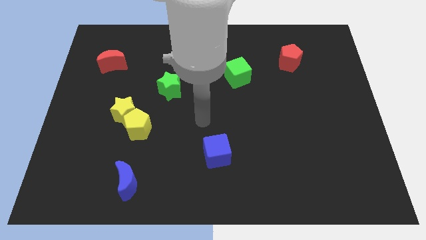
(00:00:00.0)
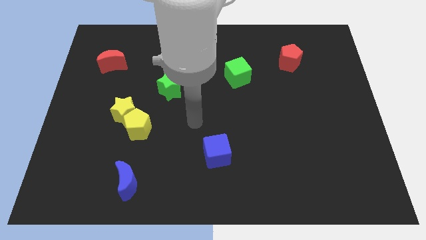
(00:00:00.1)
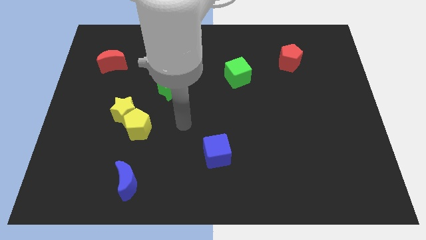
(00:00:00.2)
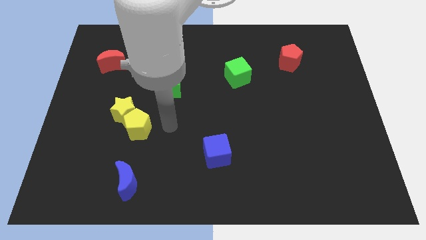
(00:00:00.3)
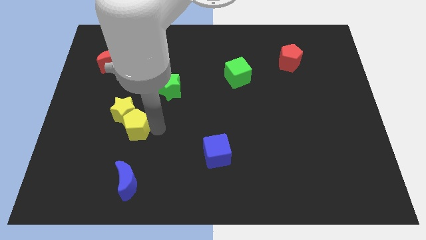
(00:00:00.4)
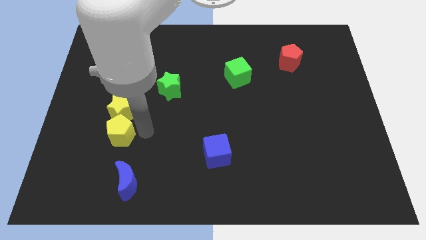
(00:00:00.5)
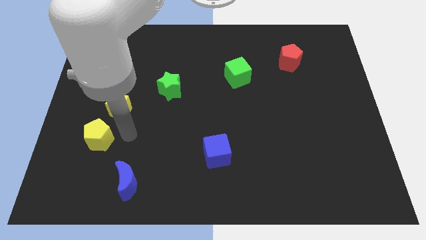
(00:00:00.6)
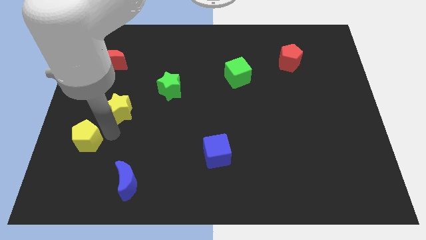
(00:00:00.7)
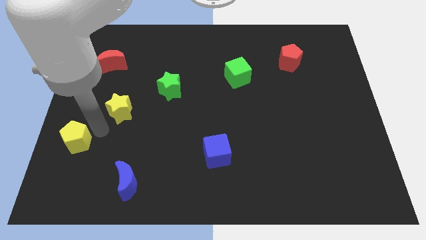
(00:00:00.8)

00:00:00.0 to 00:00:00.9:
pull the yellow star apart from the yellow pentagon

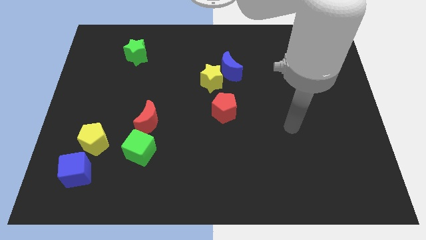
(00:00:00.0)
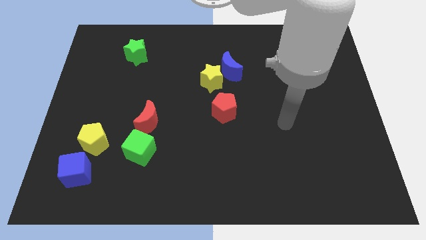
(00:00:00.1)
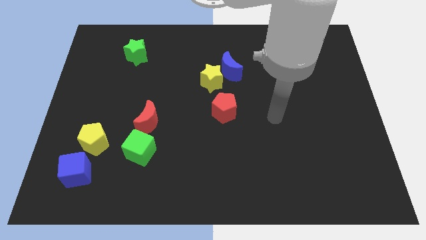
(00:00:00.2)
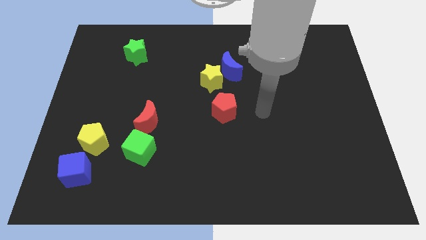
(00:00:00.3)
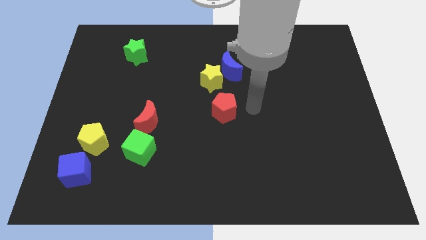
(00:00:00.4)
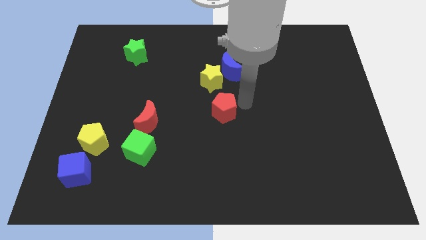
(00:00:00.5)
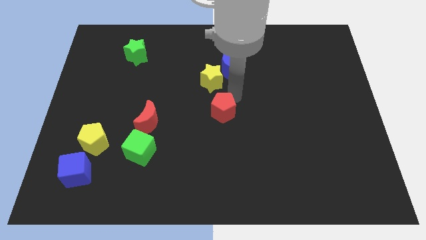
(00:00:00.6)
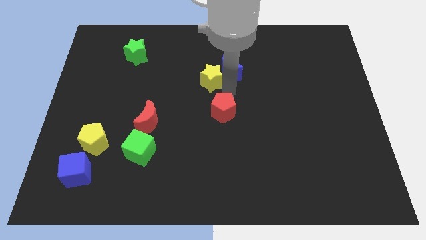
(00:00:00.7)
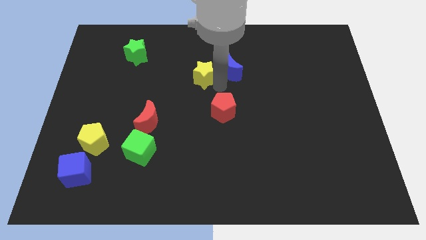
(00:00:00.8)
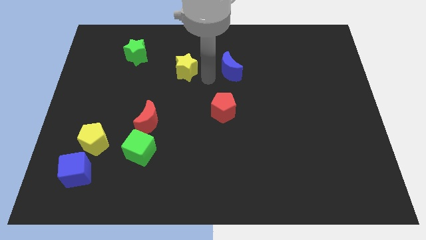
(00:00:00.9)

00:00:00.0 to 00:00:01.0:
separate the blue moon from the yellow star

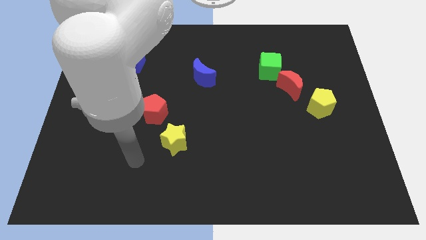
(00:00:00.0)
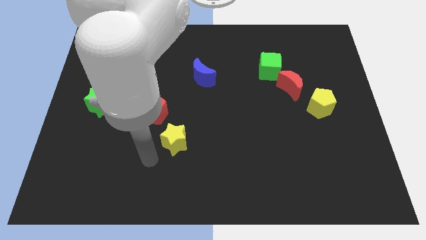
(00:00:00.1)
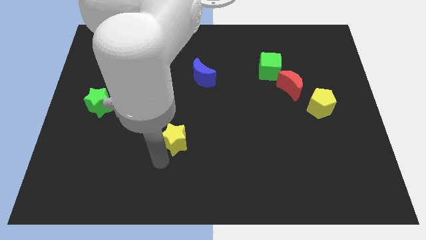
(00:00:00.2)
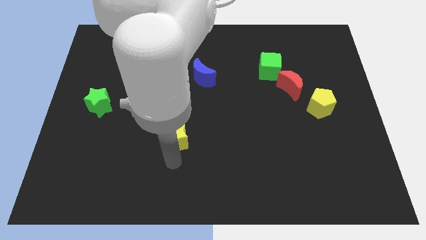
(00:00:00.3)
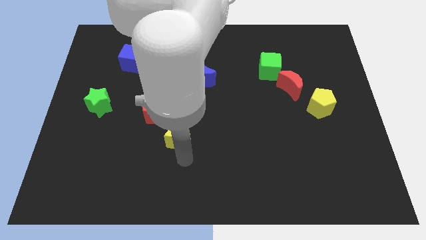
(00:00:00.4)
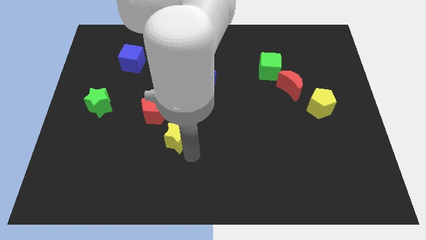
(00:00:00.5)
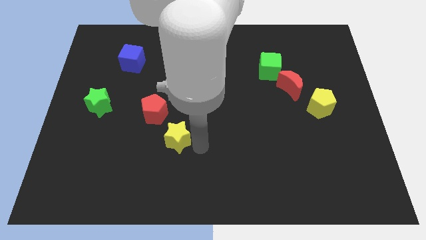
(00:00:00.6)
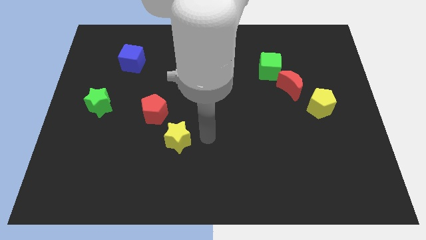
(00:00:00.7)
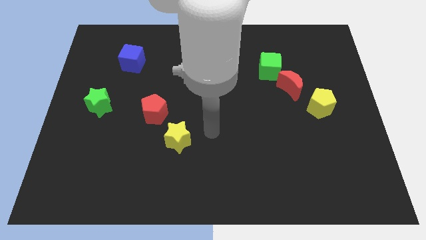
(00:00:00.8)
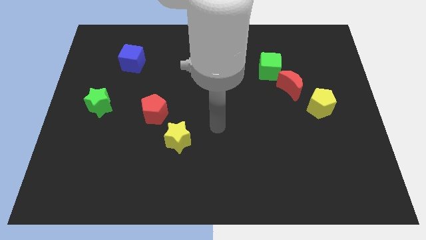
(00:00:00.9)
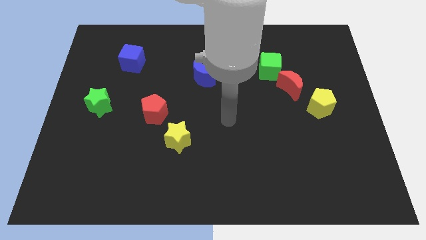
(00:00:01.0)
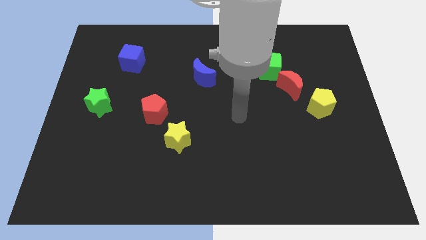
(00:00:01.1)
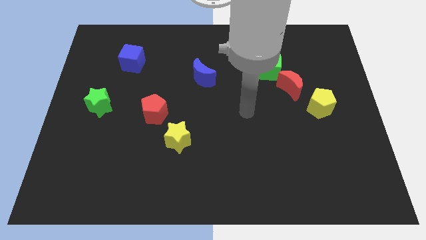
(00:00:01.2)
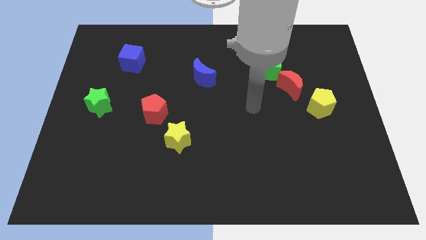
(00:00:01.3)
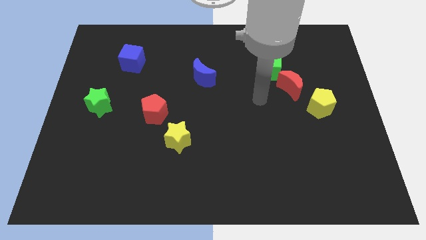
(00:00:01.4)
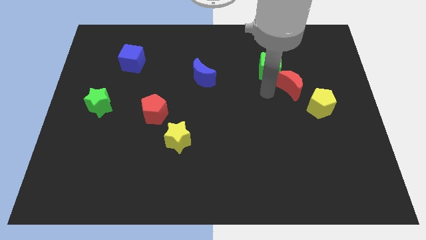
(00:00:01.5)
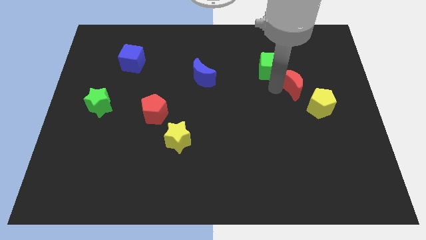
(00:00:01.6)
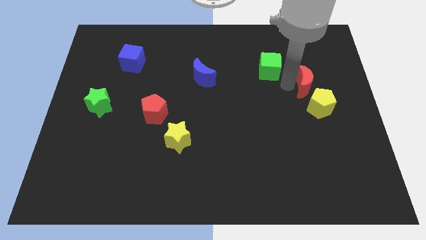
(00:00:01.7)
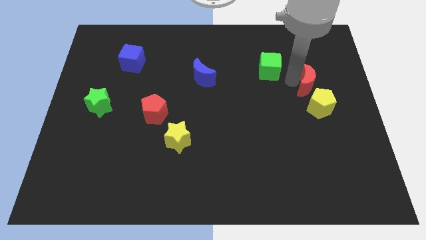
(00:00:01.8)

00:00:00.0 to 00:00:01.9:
move the green cube away from the red moon

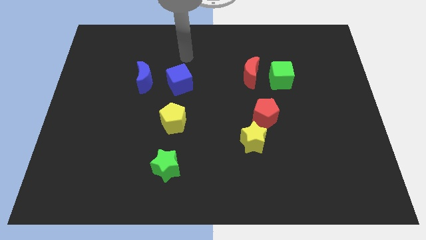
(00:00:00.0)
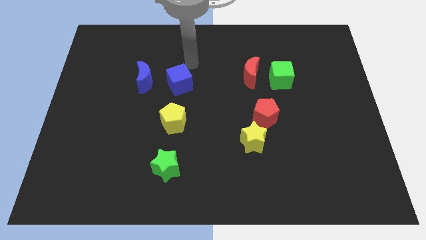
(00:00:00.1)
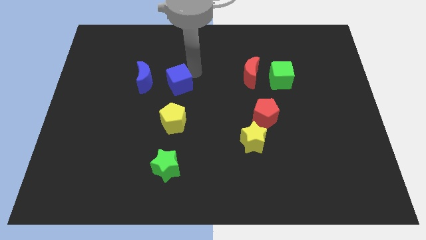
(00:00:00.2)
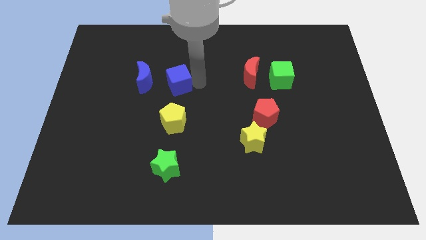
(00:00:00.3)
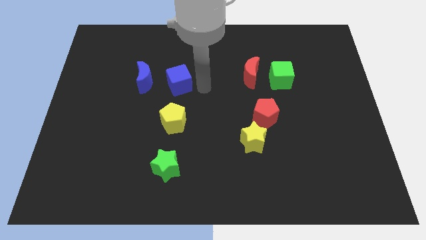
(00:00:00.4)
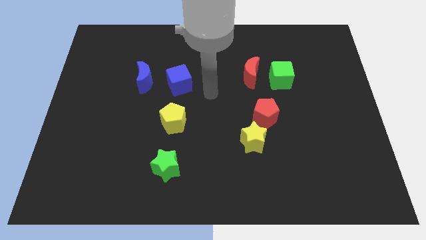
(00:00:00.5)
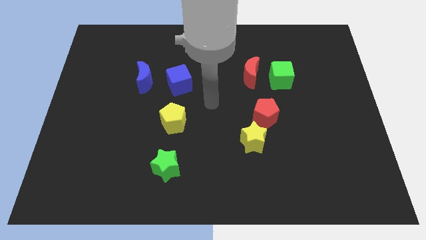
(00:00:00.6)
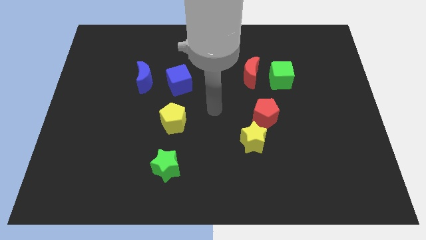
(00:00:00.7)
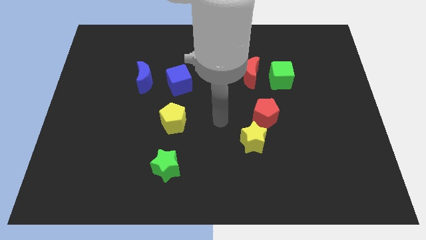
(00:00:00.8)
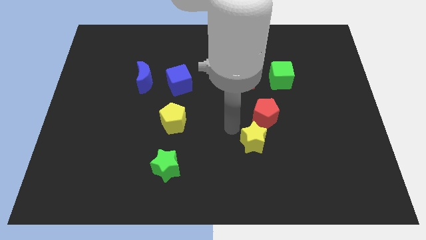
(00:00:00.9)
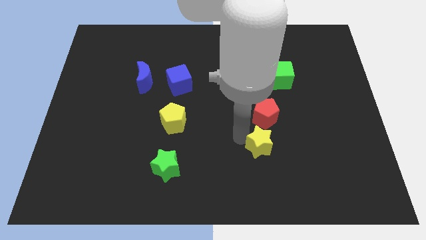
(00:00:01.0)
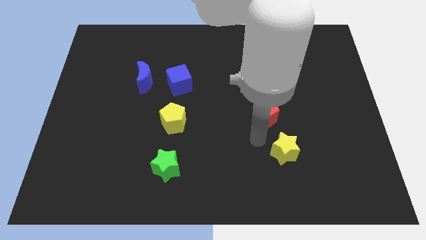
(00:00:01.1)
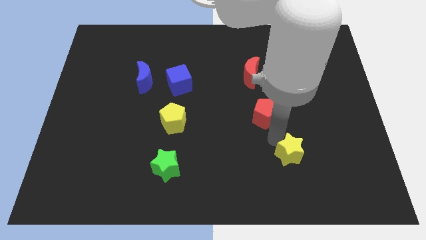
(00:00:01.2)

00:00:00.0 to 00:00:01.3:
move the red pentagon away from the yellow star

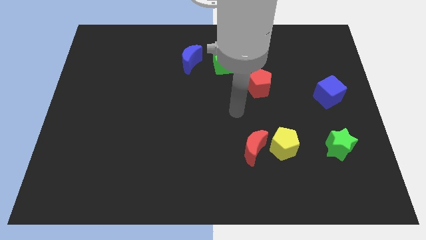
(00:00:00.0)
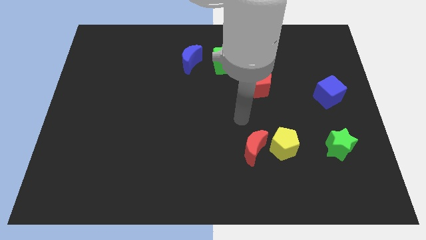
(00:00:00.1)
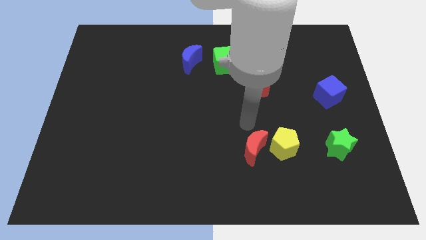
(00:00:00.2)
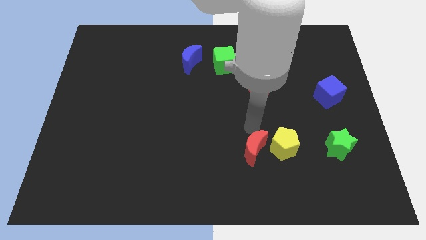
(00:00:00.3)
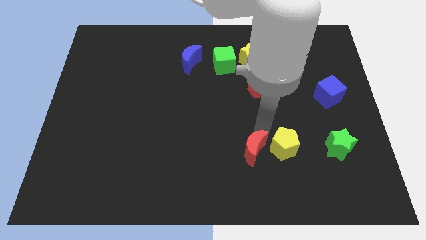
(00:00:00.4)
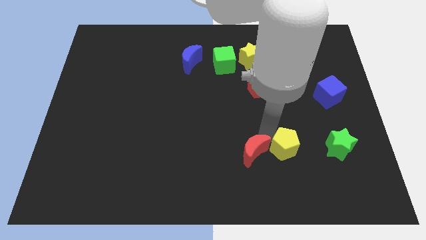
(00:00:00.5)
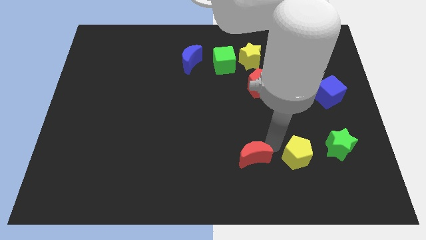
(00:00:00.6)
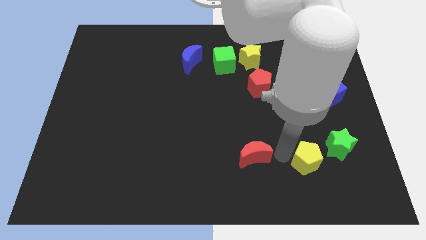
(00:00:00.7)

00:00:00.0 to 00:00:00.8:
move the red moon away from the yellow pentagon

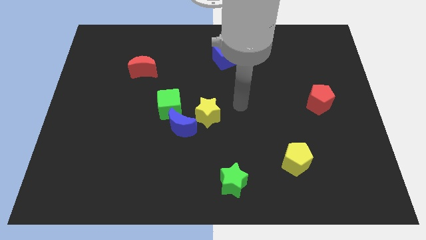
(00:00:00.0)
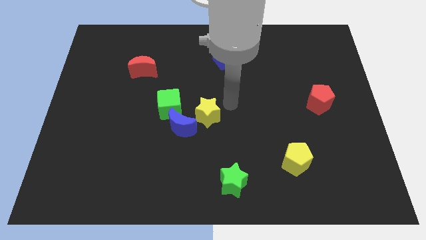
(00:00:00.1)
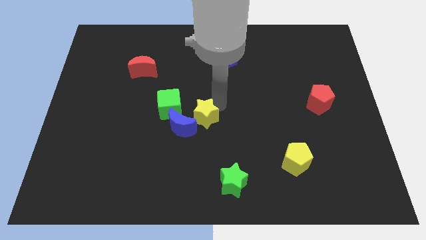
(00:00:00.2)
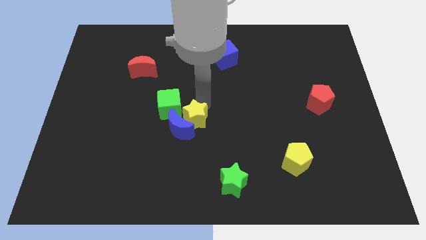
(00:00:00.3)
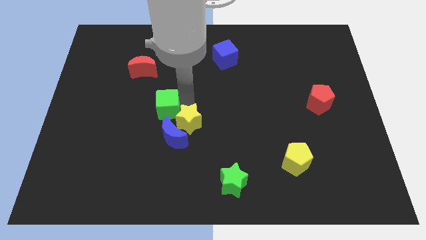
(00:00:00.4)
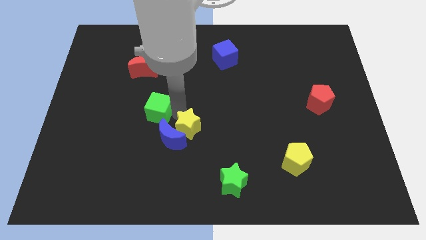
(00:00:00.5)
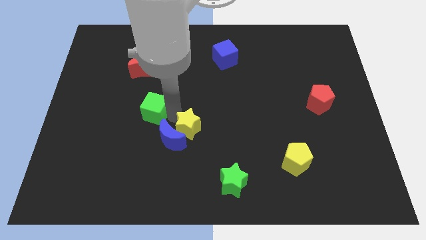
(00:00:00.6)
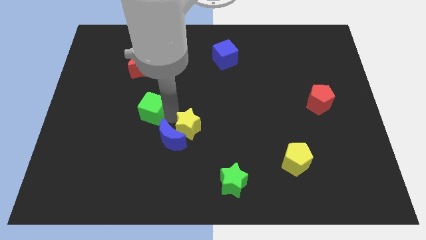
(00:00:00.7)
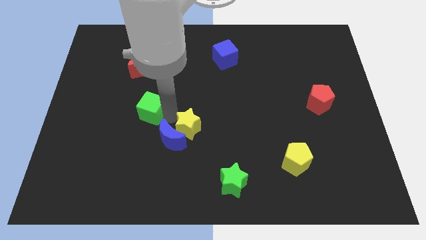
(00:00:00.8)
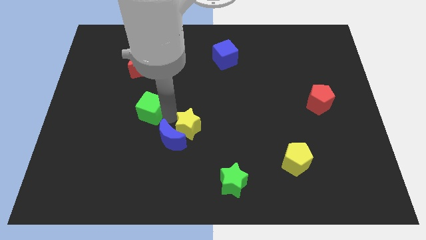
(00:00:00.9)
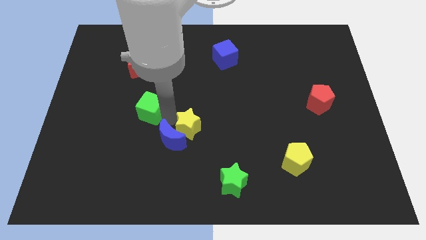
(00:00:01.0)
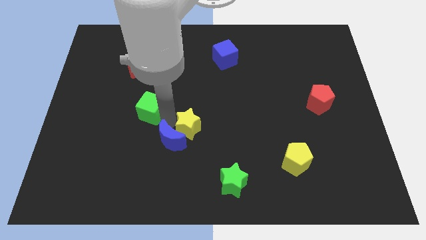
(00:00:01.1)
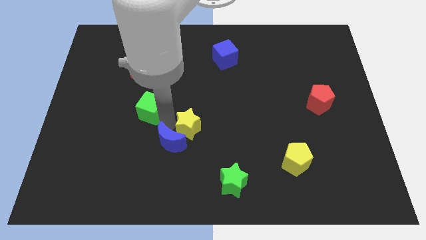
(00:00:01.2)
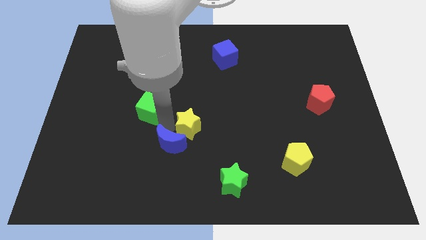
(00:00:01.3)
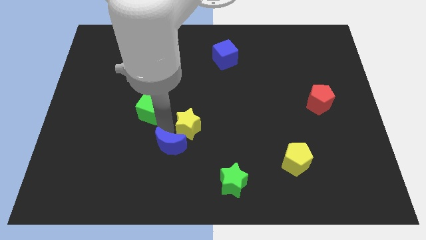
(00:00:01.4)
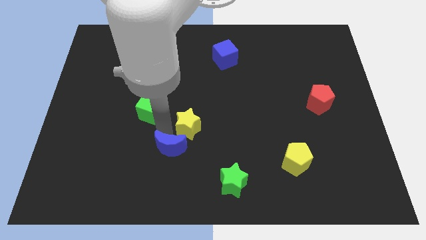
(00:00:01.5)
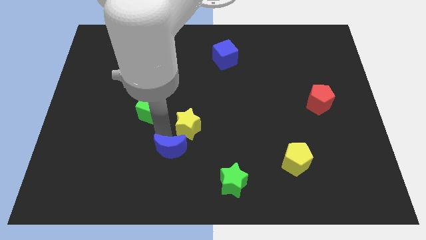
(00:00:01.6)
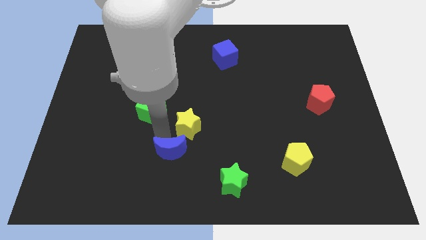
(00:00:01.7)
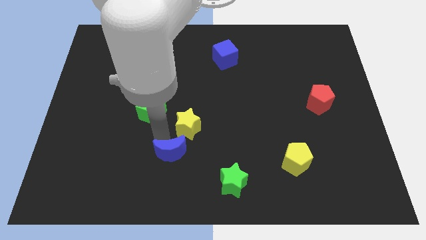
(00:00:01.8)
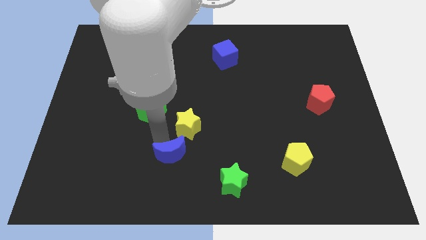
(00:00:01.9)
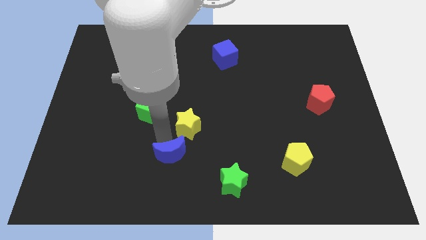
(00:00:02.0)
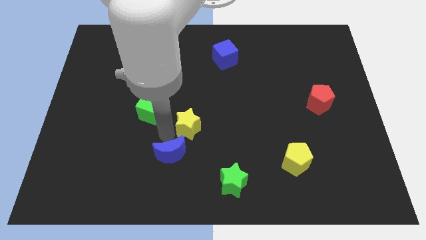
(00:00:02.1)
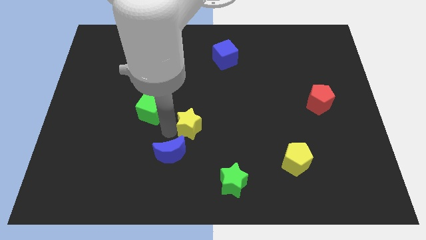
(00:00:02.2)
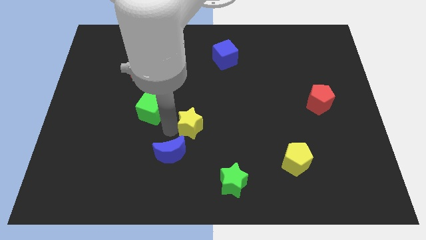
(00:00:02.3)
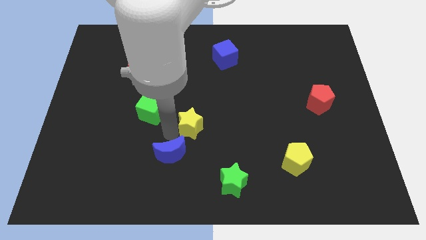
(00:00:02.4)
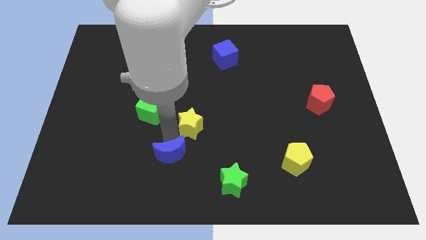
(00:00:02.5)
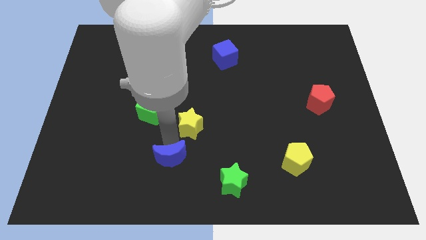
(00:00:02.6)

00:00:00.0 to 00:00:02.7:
pull the blue moon apart from the green cube and yellow star

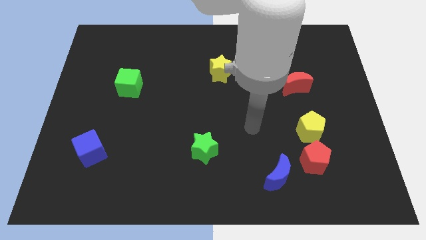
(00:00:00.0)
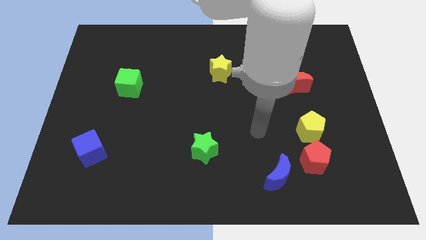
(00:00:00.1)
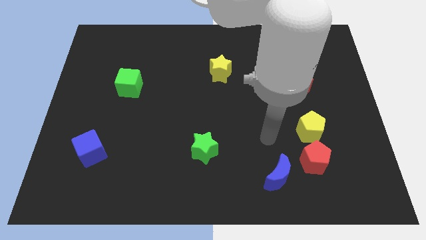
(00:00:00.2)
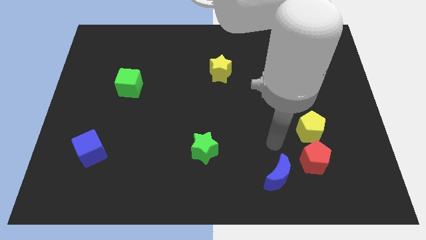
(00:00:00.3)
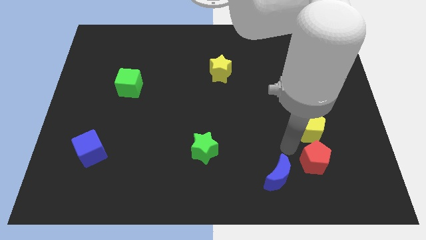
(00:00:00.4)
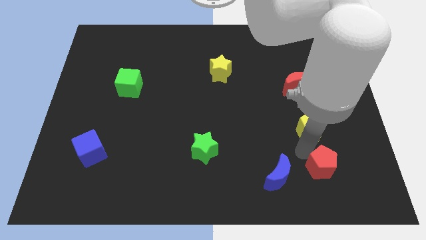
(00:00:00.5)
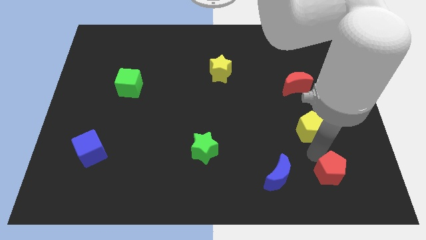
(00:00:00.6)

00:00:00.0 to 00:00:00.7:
separate the yellow pentagon from the red pentagon
